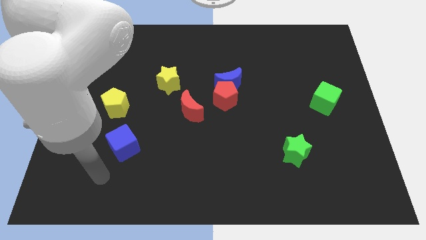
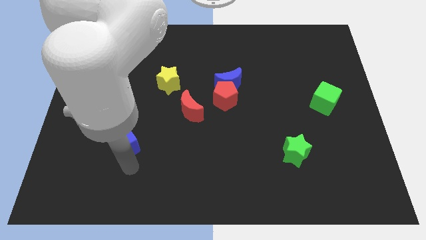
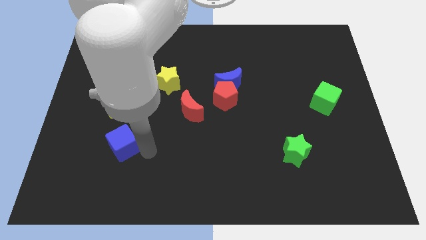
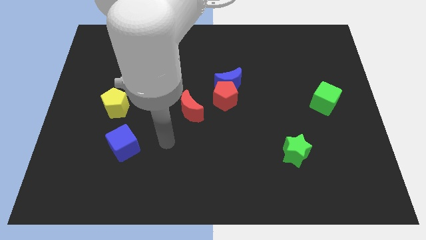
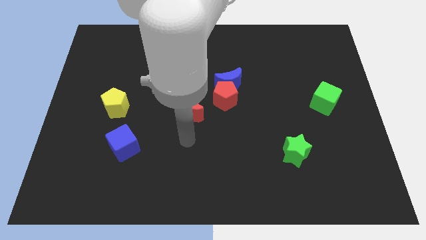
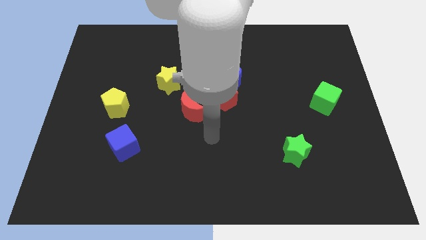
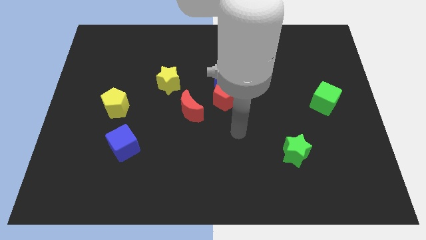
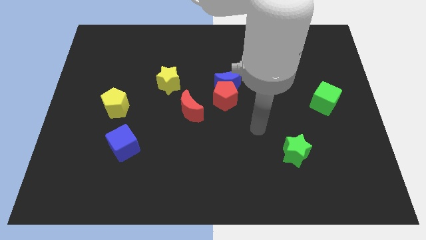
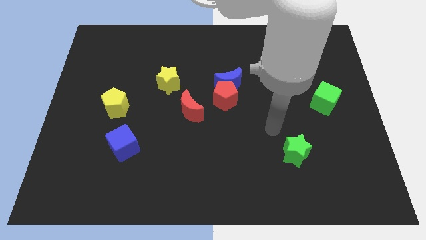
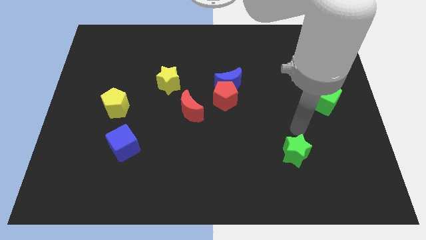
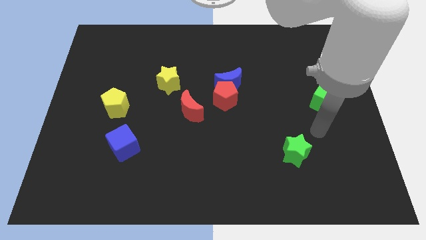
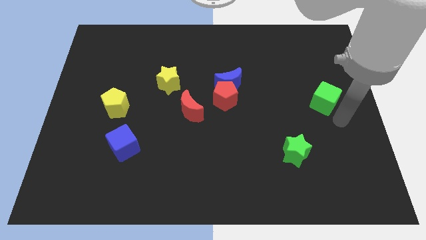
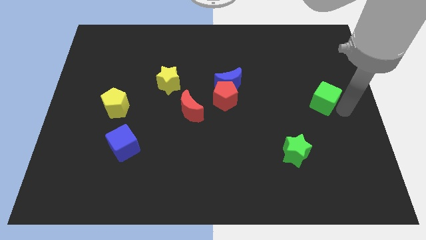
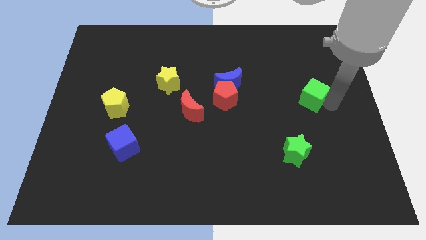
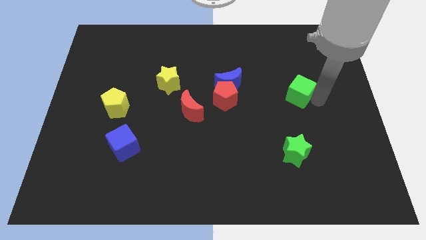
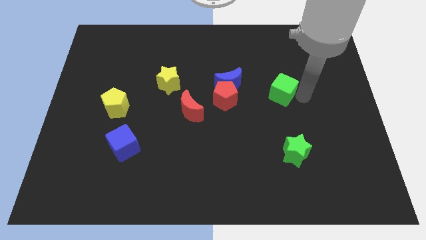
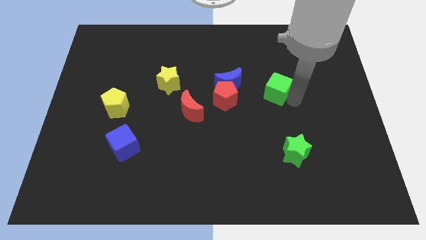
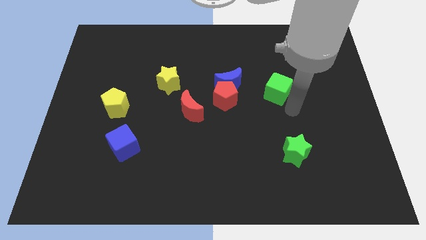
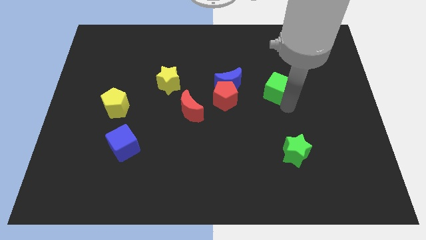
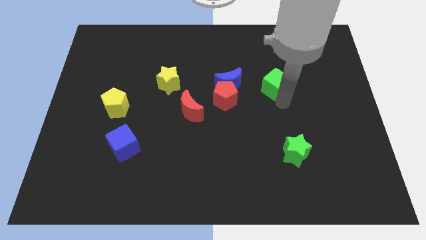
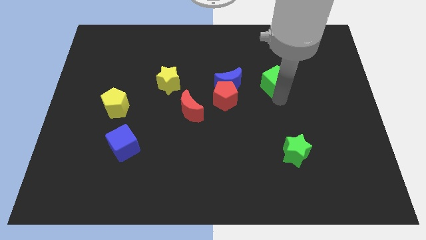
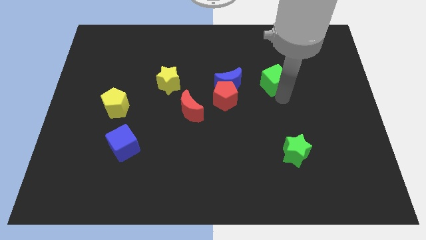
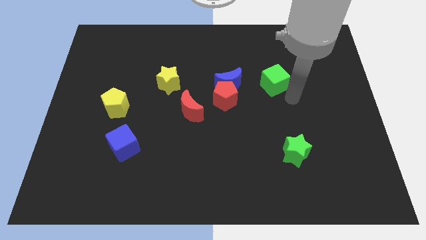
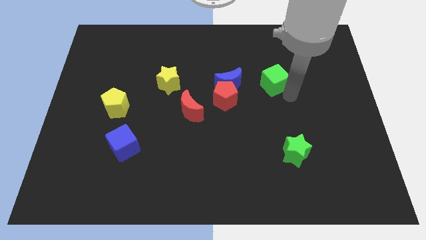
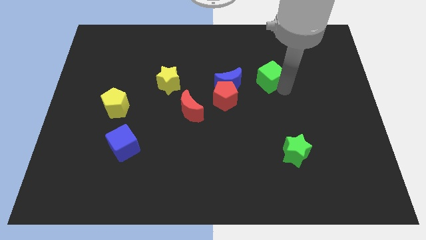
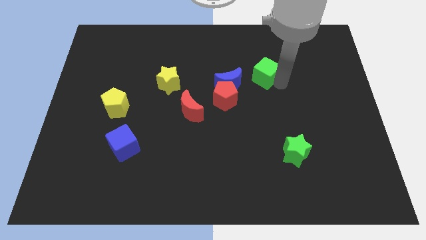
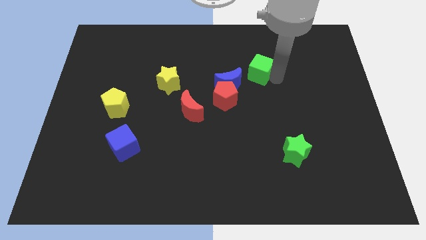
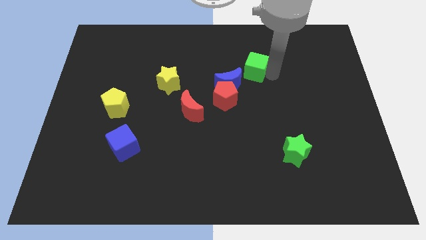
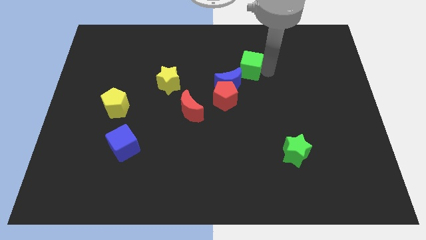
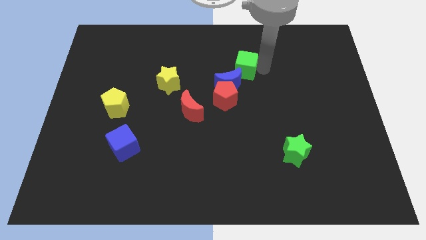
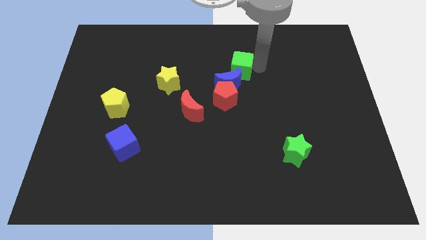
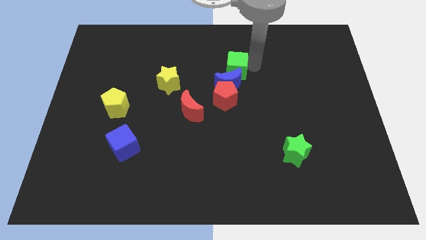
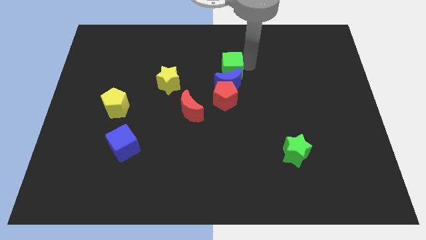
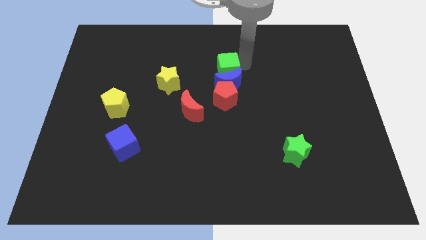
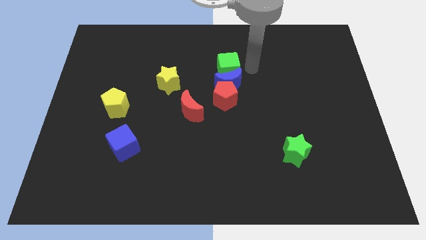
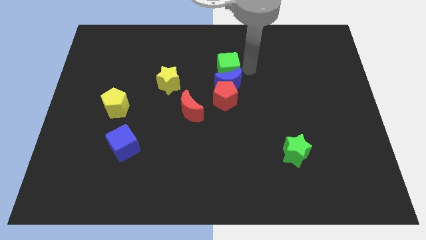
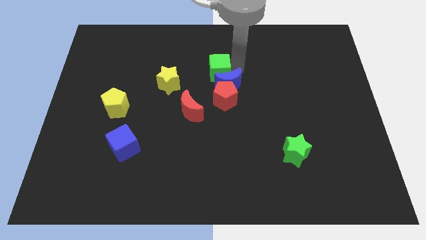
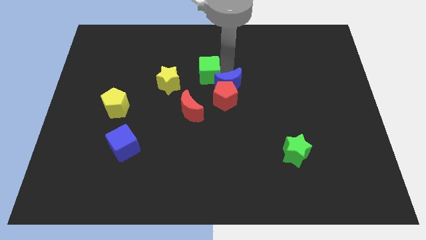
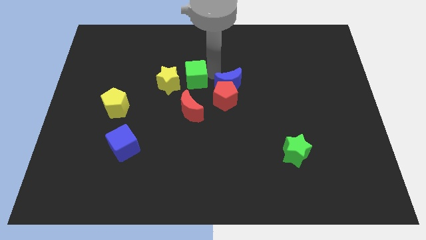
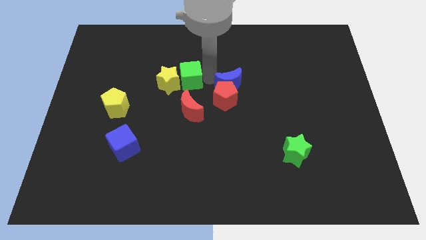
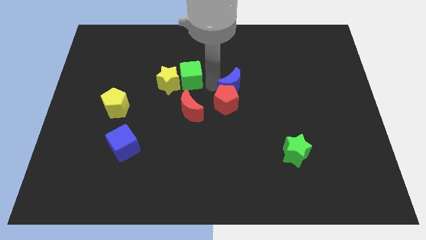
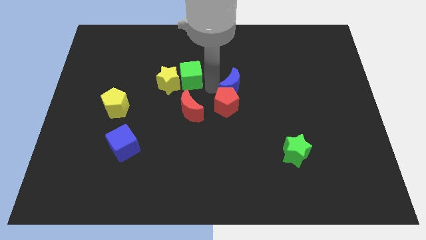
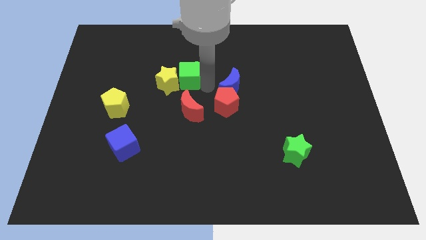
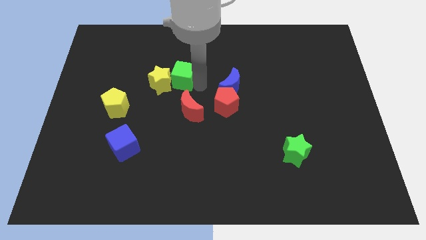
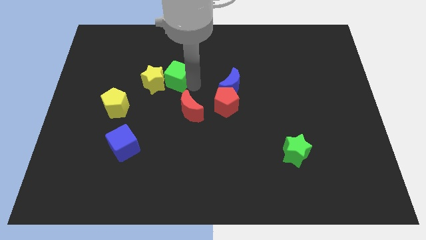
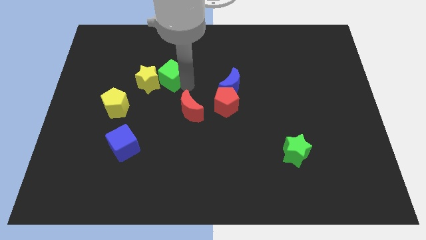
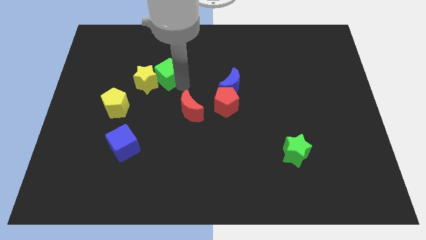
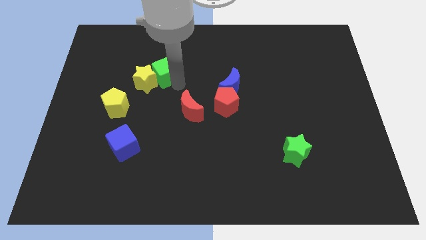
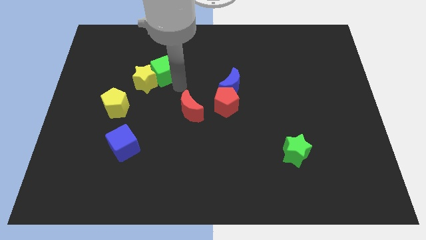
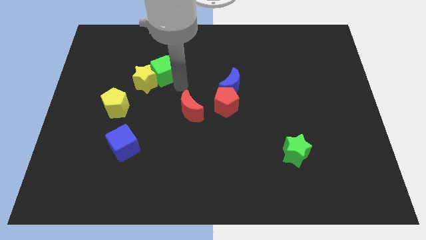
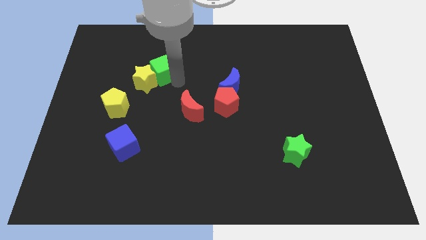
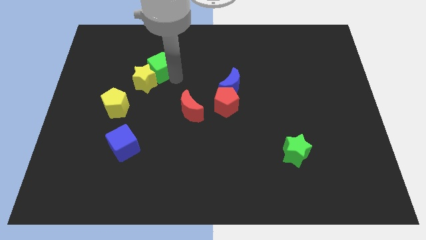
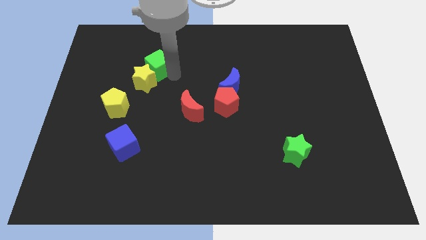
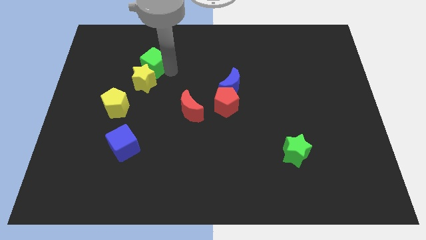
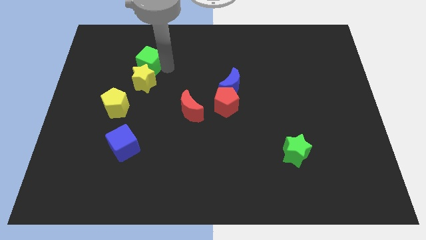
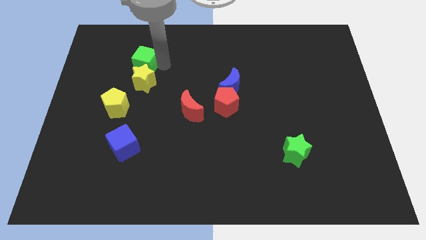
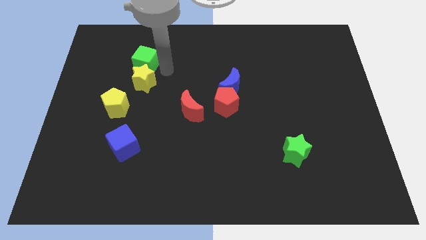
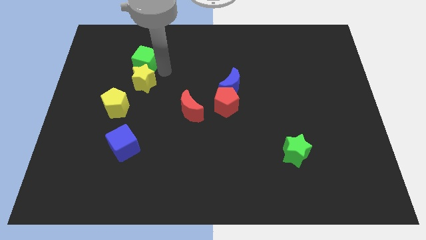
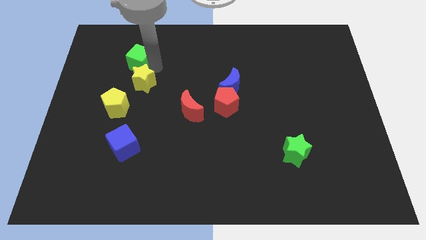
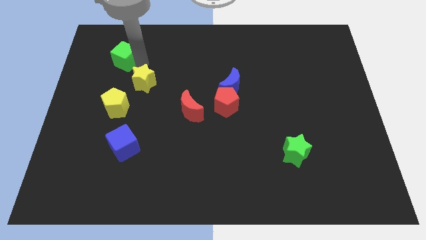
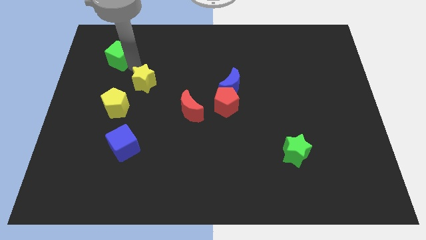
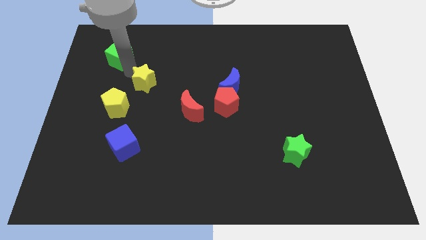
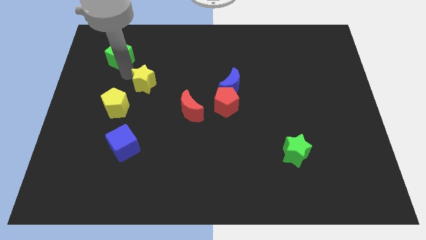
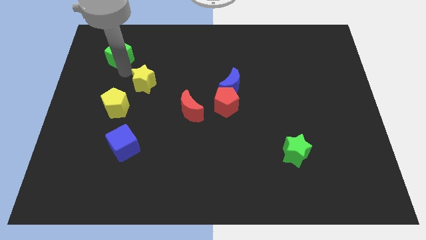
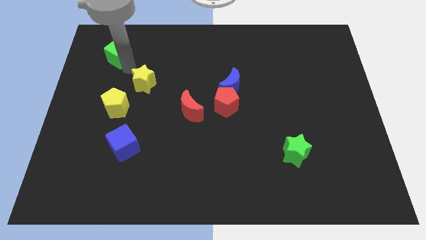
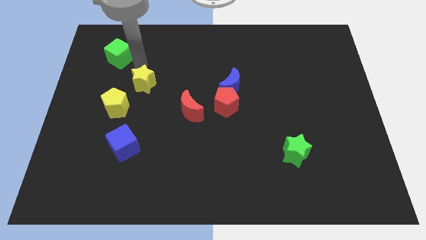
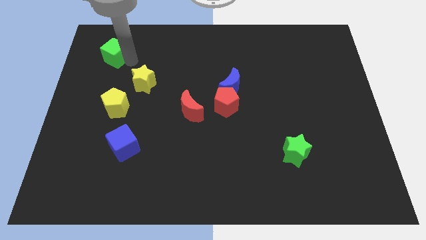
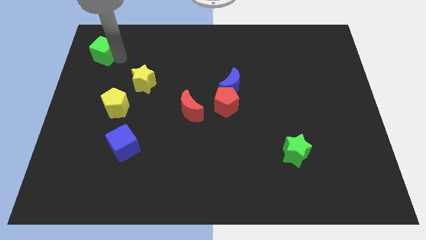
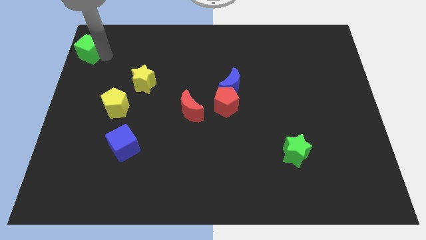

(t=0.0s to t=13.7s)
move the green cube to the top left corner
